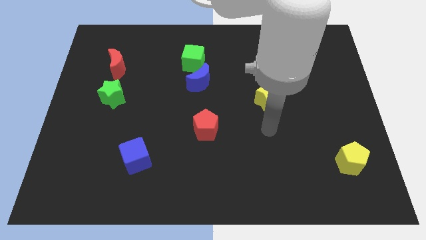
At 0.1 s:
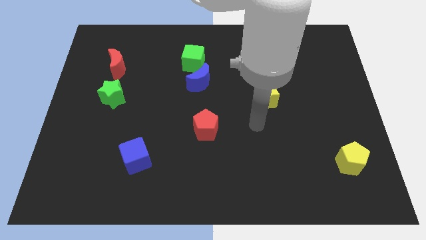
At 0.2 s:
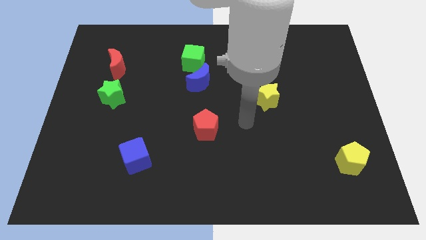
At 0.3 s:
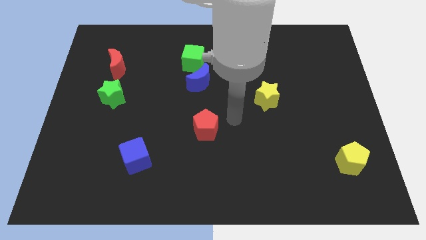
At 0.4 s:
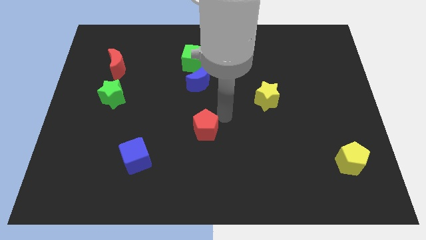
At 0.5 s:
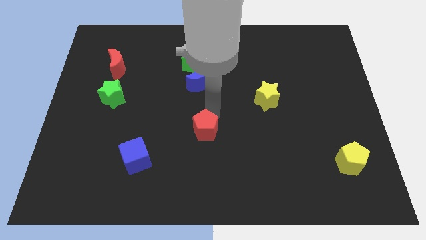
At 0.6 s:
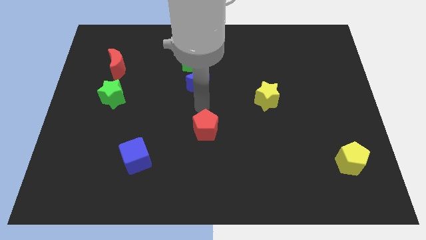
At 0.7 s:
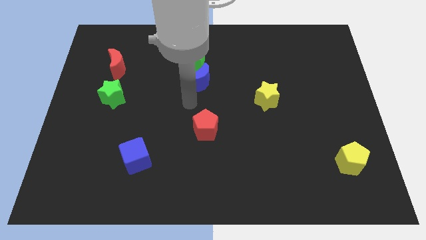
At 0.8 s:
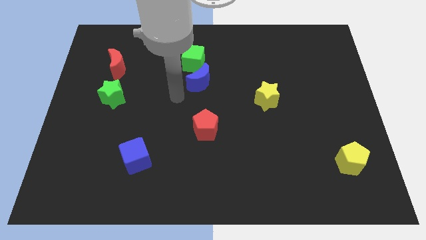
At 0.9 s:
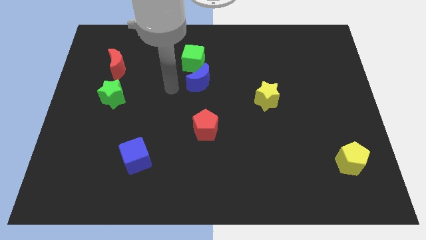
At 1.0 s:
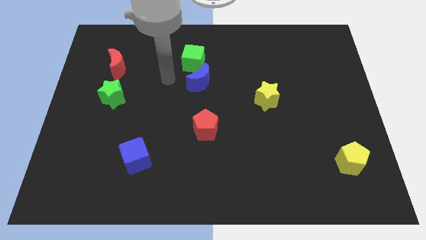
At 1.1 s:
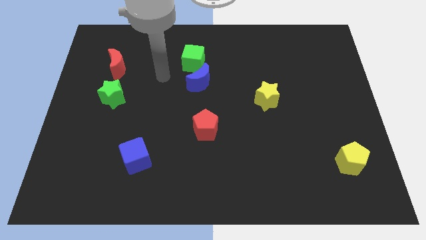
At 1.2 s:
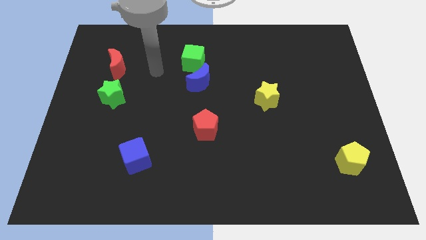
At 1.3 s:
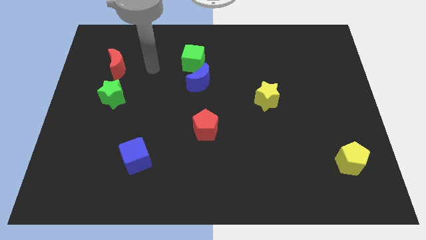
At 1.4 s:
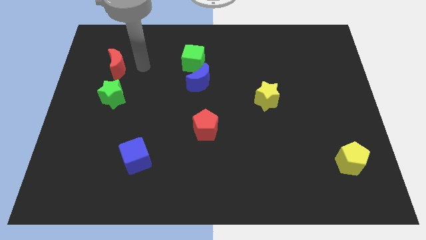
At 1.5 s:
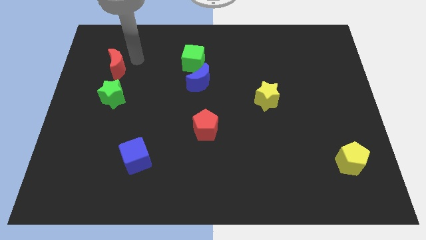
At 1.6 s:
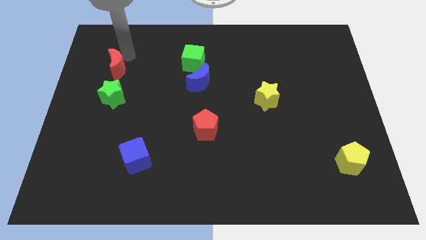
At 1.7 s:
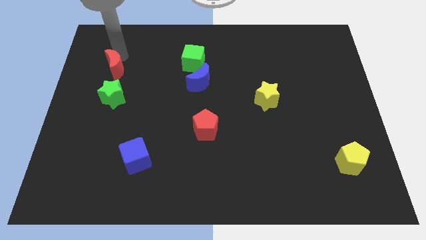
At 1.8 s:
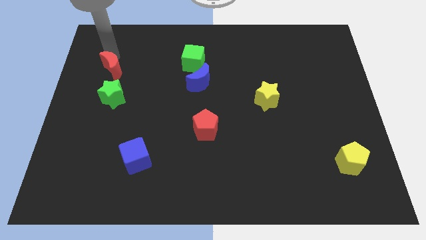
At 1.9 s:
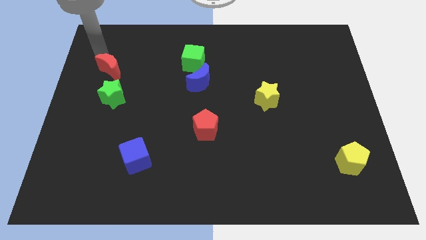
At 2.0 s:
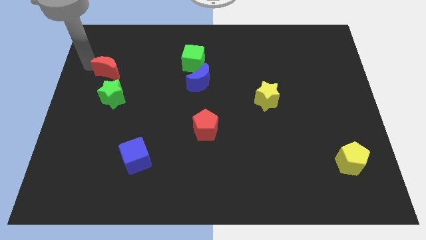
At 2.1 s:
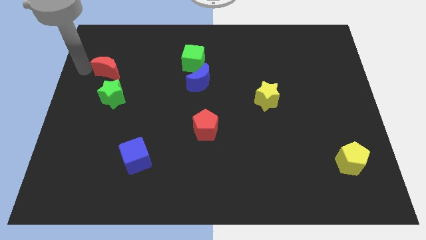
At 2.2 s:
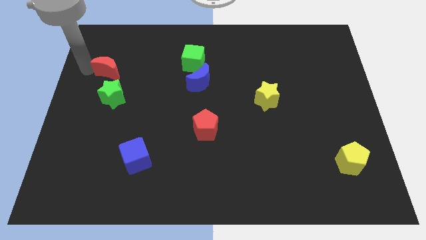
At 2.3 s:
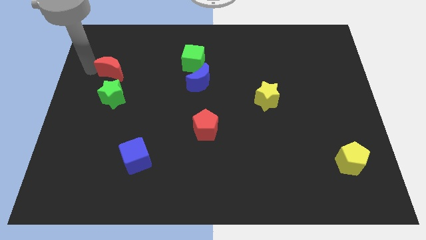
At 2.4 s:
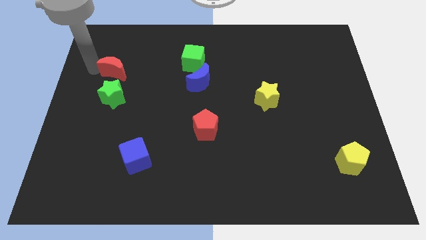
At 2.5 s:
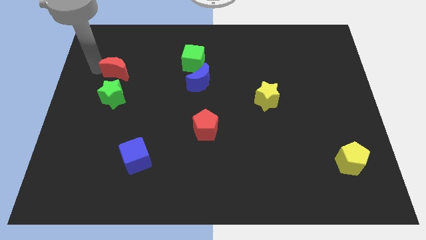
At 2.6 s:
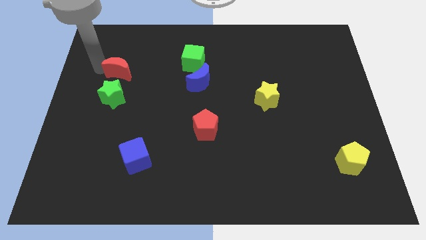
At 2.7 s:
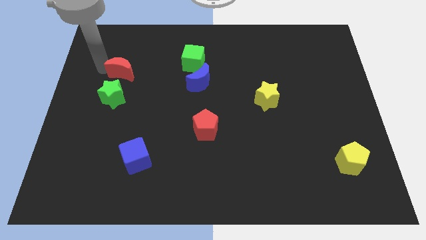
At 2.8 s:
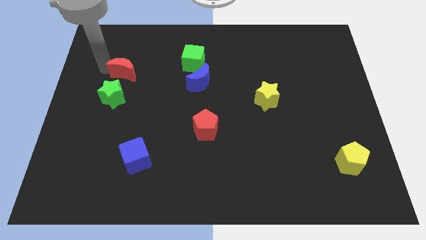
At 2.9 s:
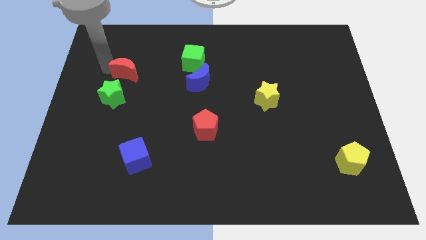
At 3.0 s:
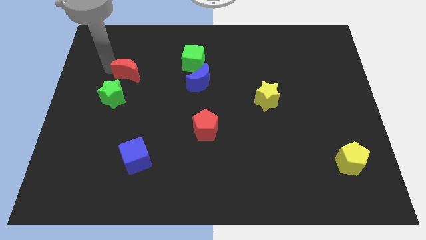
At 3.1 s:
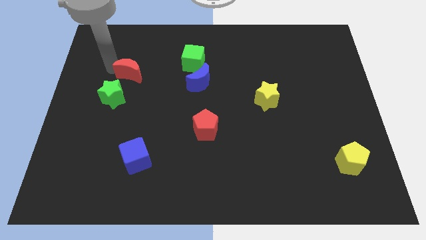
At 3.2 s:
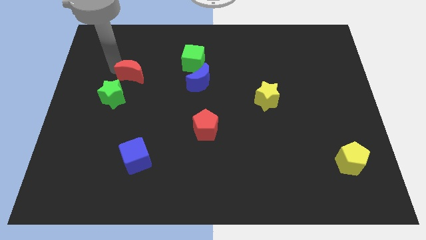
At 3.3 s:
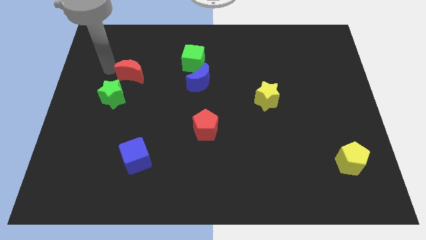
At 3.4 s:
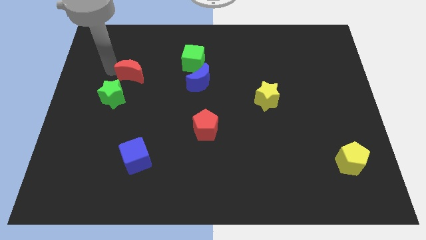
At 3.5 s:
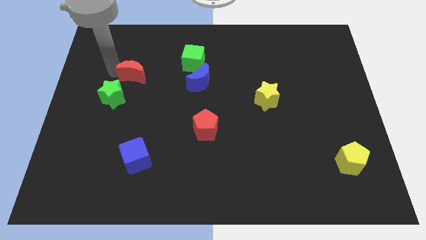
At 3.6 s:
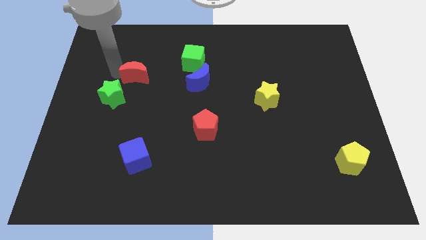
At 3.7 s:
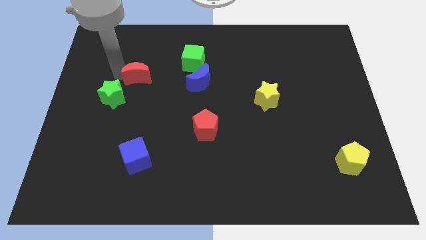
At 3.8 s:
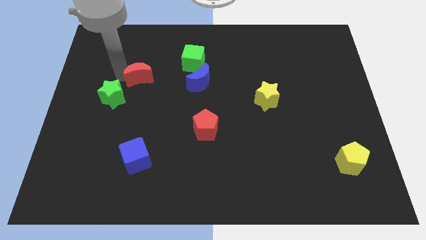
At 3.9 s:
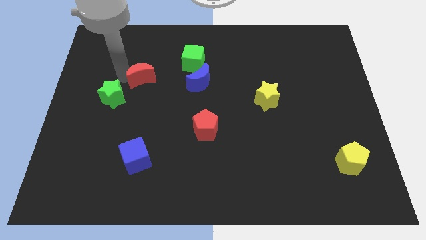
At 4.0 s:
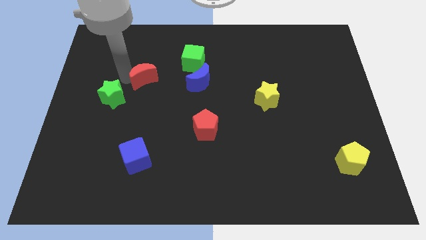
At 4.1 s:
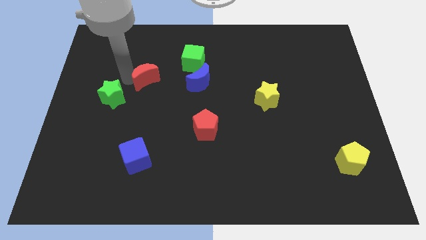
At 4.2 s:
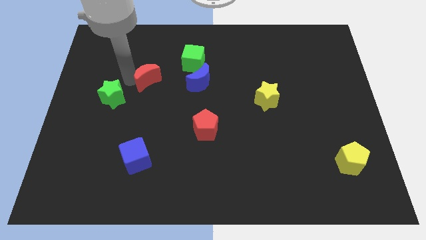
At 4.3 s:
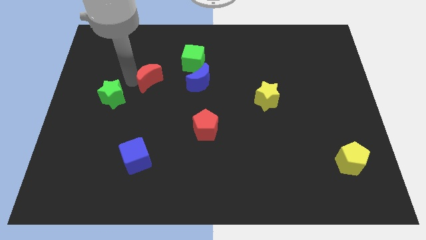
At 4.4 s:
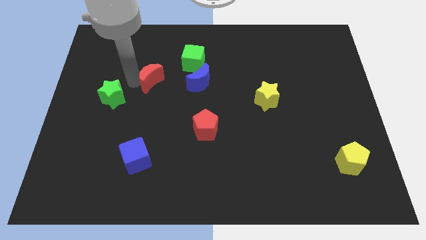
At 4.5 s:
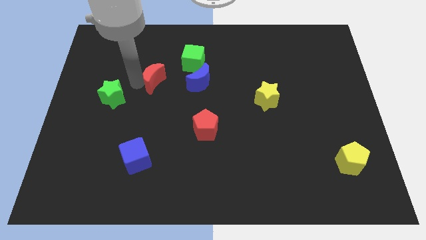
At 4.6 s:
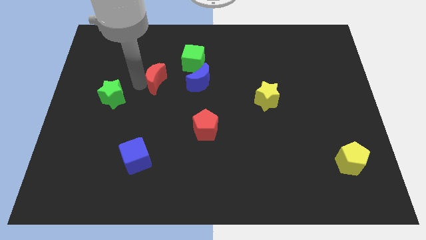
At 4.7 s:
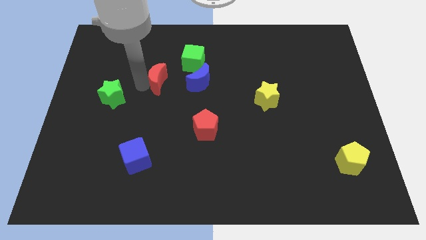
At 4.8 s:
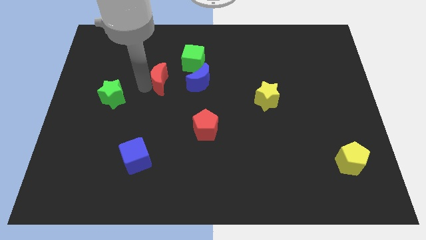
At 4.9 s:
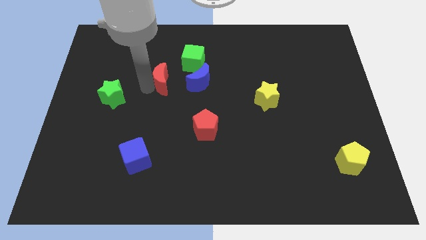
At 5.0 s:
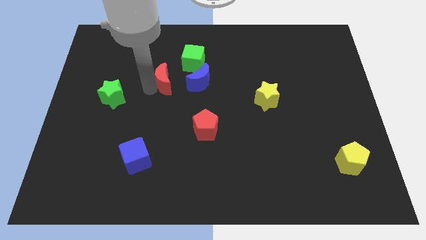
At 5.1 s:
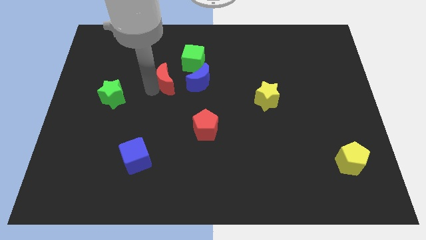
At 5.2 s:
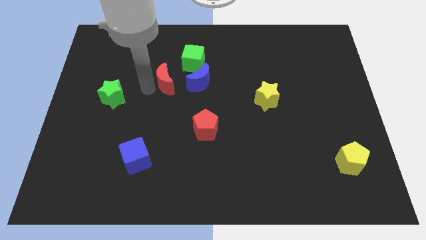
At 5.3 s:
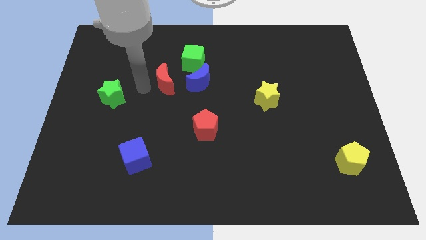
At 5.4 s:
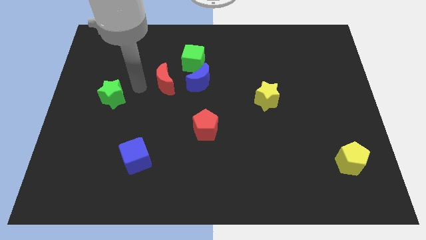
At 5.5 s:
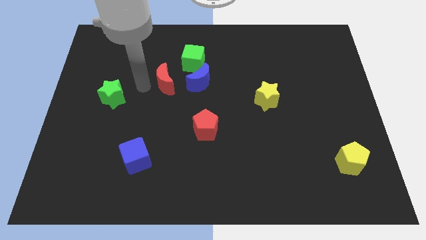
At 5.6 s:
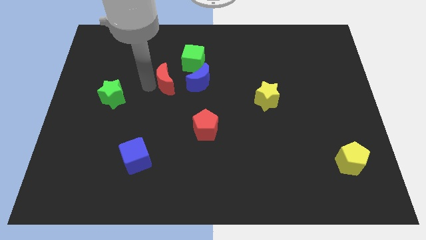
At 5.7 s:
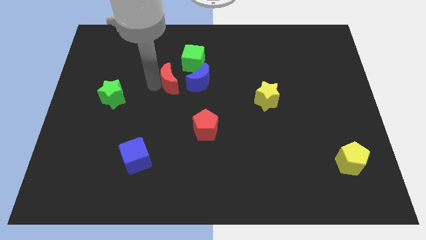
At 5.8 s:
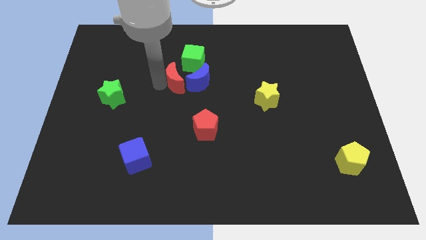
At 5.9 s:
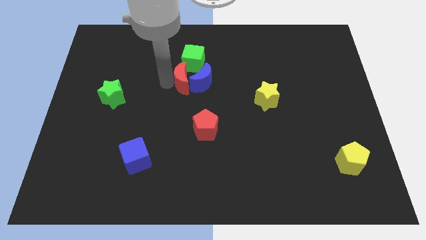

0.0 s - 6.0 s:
move the red moon to the blue moon

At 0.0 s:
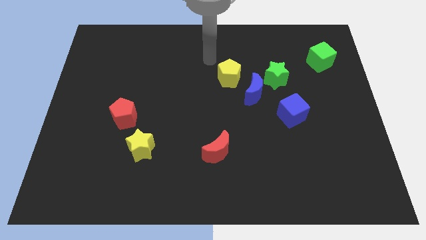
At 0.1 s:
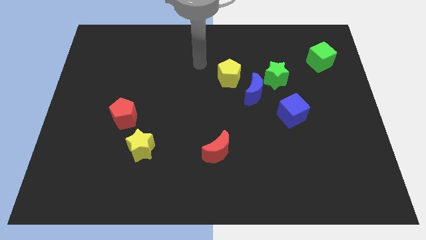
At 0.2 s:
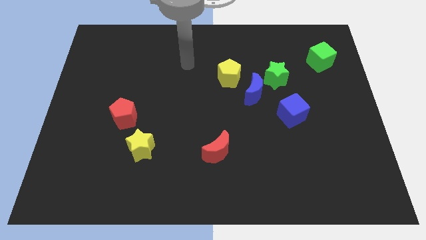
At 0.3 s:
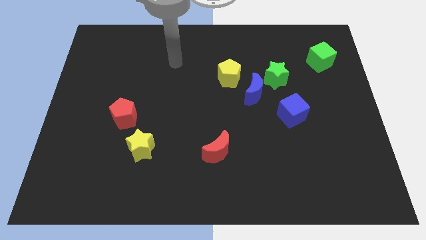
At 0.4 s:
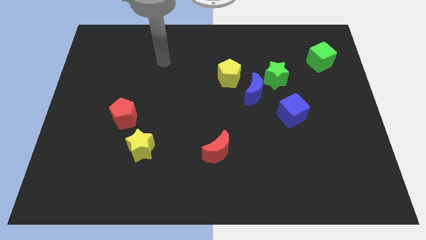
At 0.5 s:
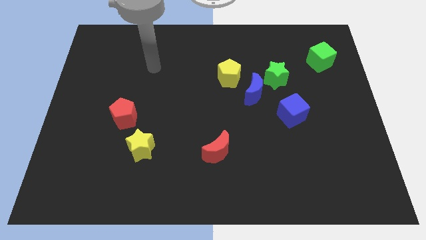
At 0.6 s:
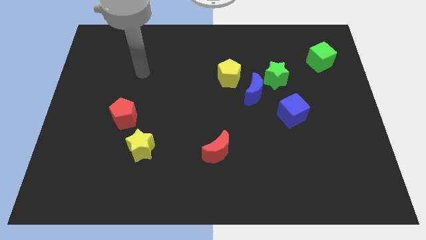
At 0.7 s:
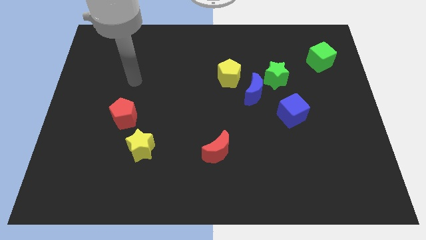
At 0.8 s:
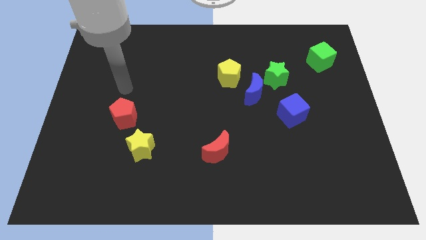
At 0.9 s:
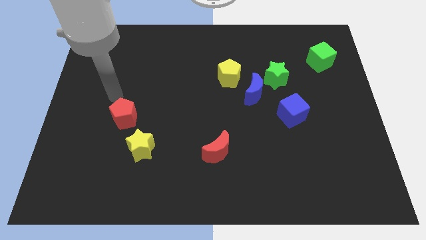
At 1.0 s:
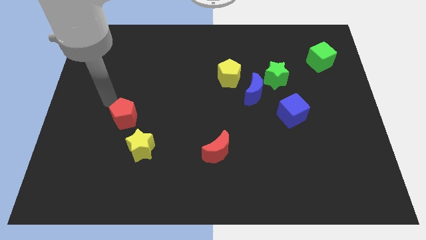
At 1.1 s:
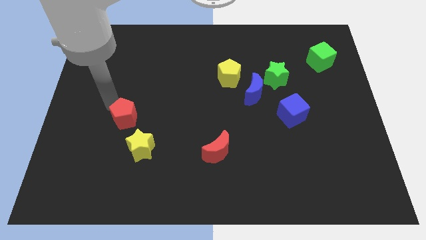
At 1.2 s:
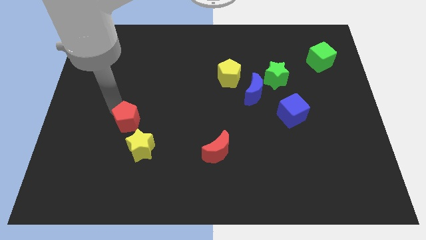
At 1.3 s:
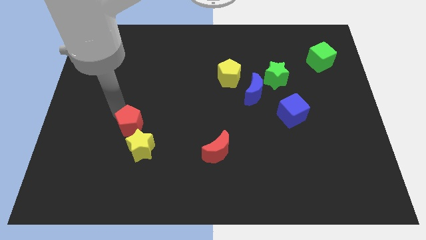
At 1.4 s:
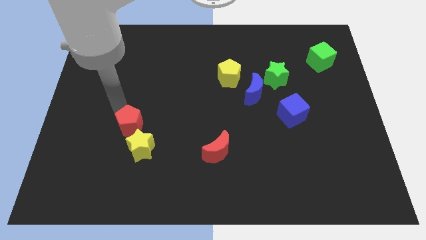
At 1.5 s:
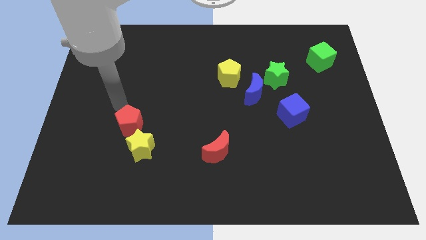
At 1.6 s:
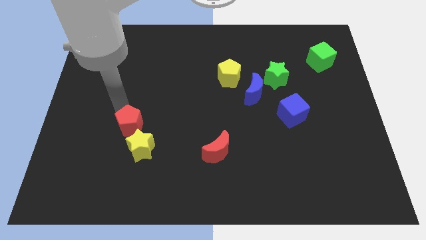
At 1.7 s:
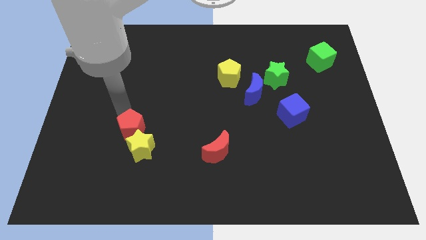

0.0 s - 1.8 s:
move the red pentagon next to the yellow star
